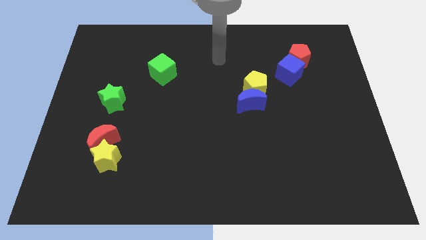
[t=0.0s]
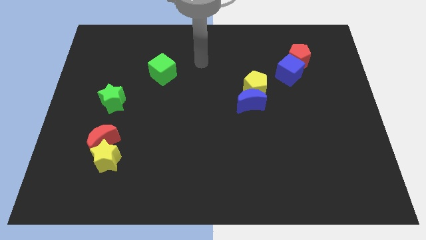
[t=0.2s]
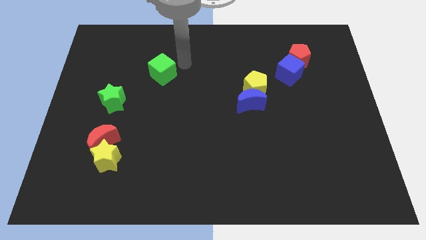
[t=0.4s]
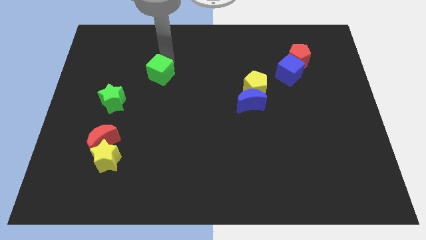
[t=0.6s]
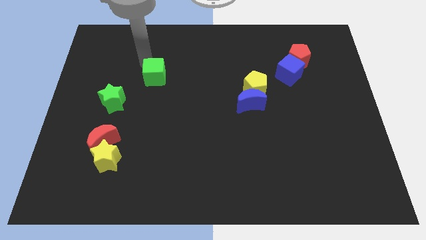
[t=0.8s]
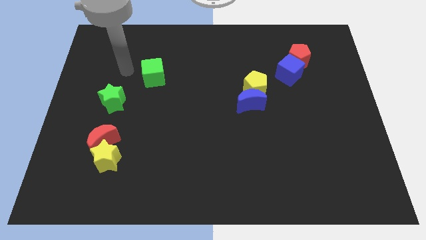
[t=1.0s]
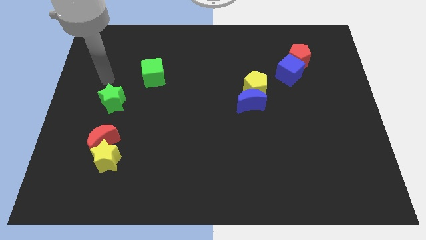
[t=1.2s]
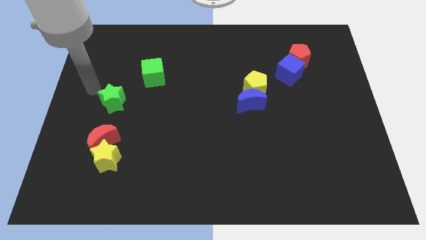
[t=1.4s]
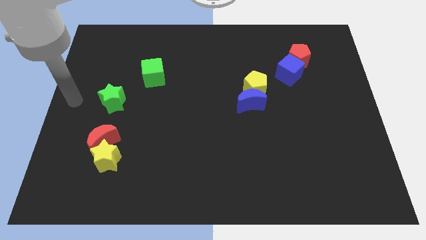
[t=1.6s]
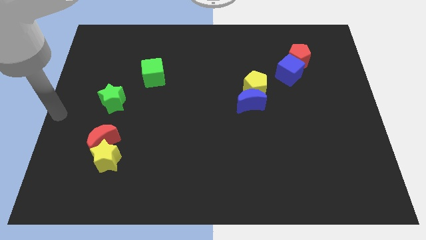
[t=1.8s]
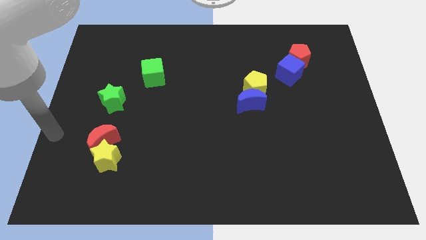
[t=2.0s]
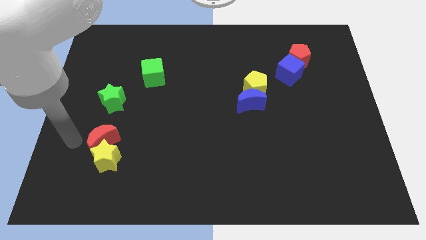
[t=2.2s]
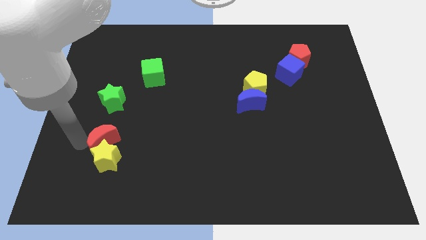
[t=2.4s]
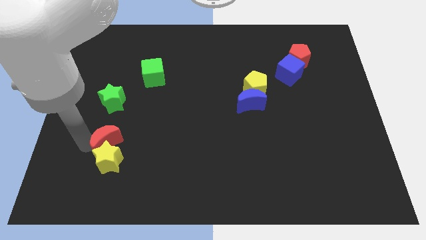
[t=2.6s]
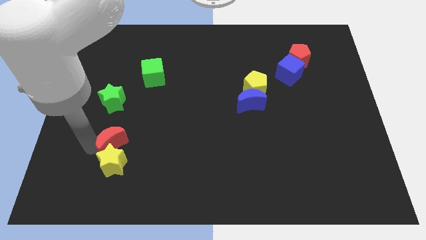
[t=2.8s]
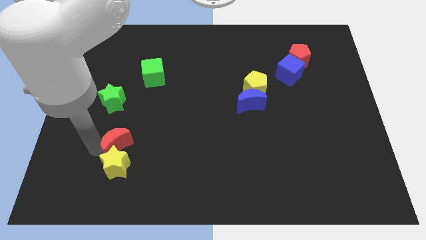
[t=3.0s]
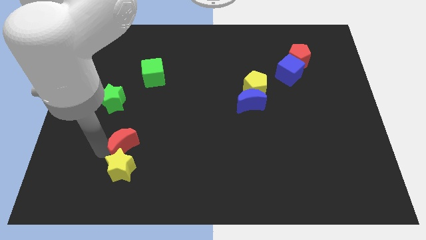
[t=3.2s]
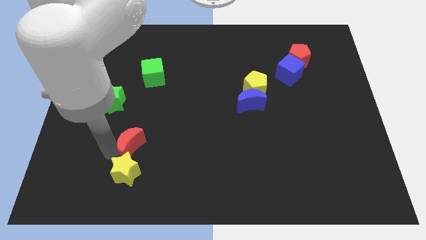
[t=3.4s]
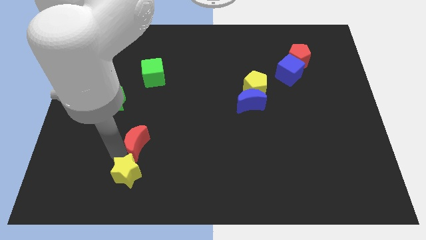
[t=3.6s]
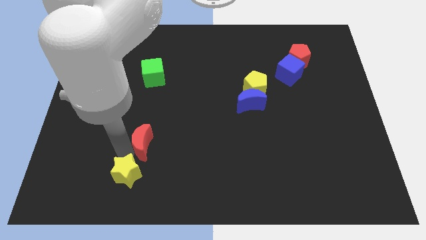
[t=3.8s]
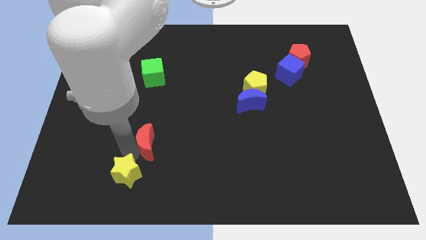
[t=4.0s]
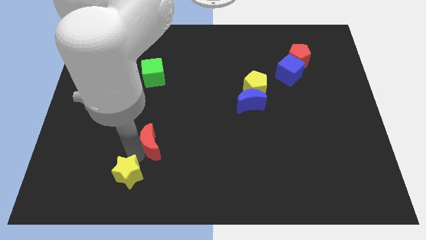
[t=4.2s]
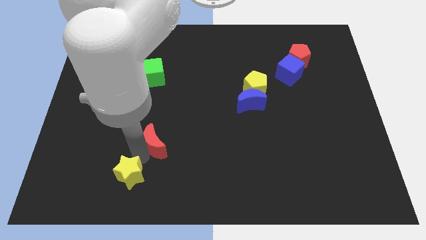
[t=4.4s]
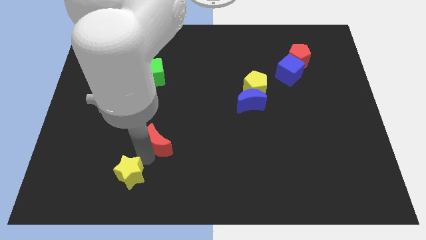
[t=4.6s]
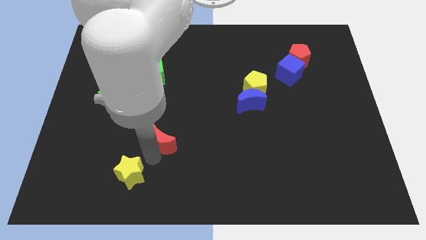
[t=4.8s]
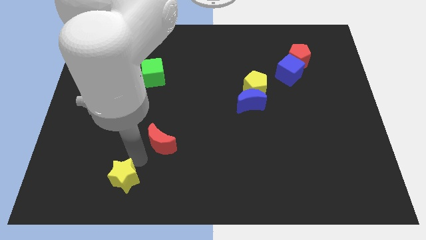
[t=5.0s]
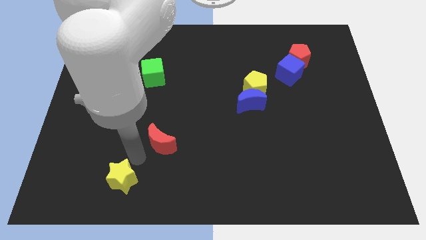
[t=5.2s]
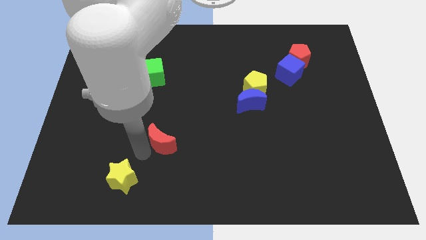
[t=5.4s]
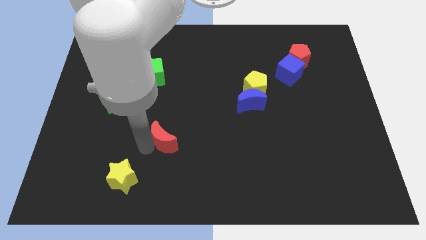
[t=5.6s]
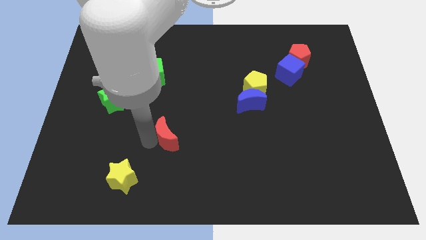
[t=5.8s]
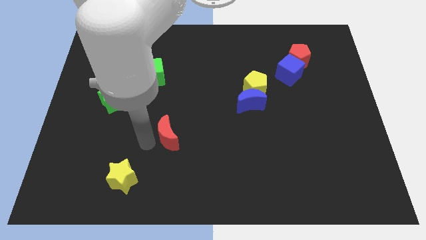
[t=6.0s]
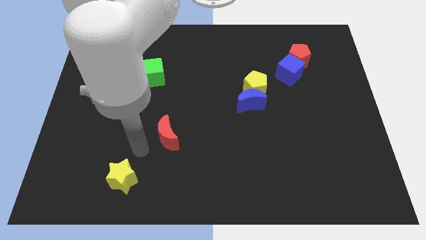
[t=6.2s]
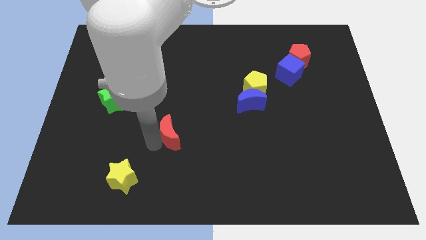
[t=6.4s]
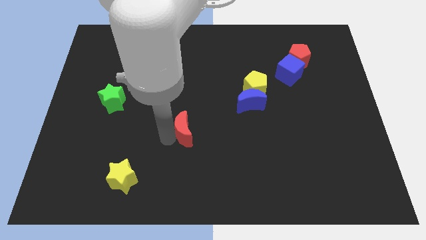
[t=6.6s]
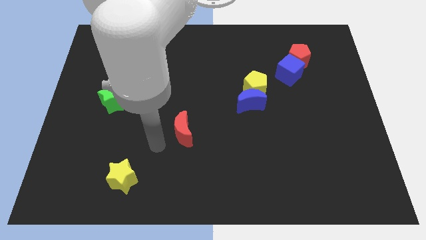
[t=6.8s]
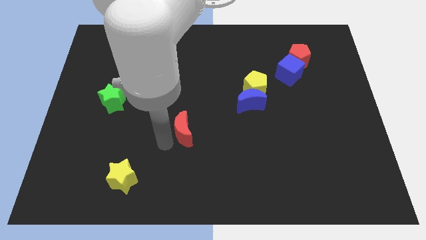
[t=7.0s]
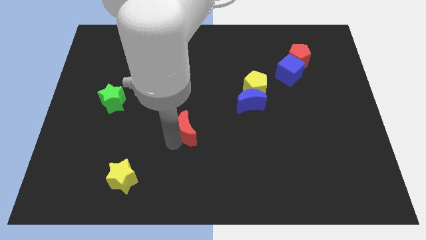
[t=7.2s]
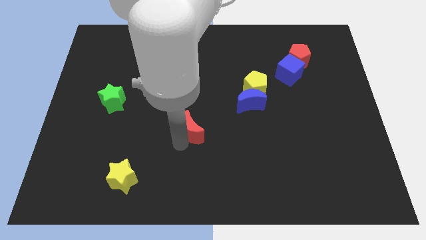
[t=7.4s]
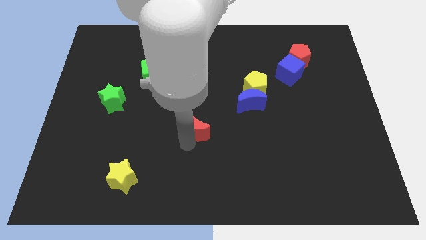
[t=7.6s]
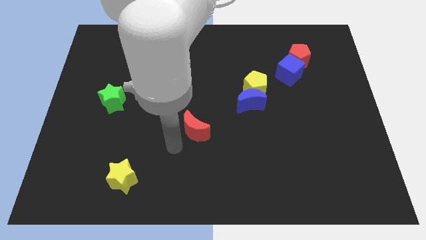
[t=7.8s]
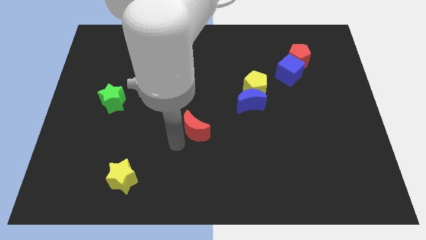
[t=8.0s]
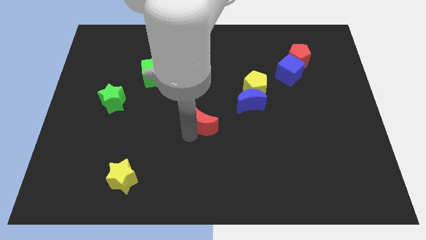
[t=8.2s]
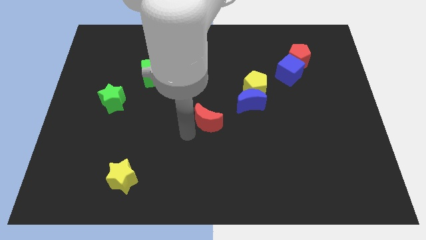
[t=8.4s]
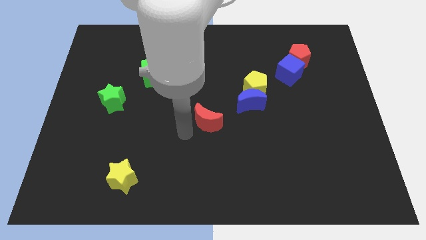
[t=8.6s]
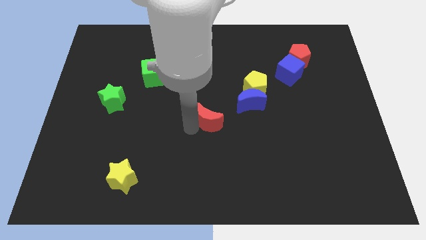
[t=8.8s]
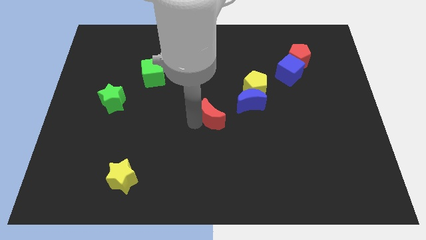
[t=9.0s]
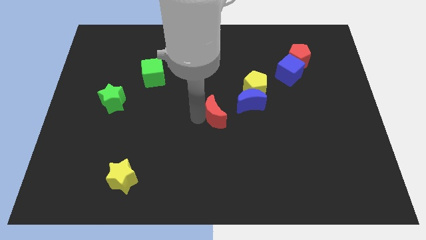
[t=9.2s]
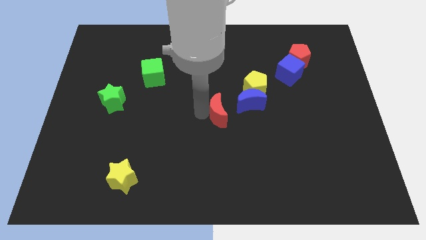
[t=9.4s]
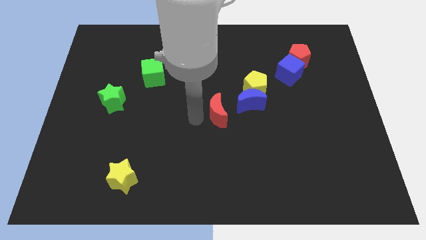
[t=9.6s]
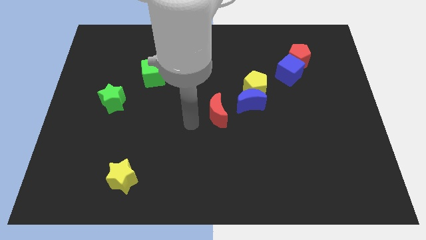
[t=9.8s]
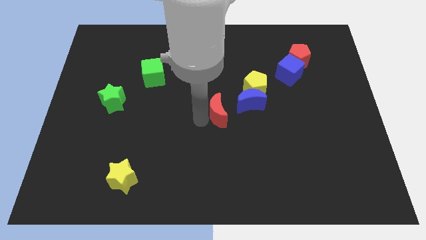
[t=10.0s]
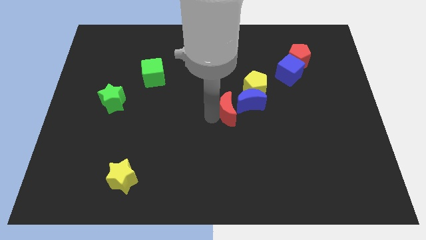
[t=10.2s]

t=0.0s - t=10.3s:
move the red moon close to the blue moon

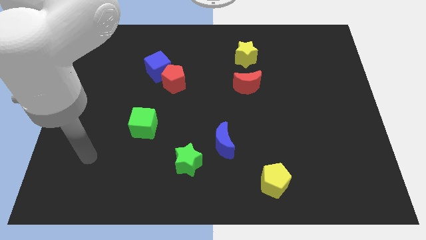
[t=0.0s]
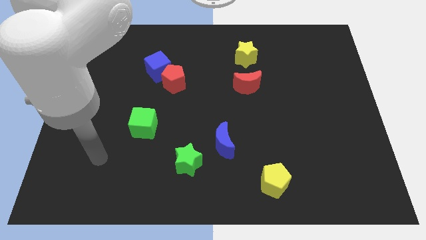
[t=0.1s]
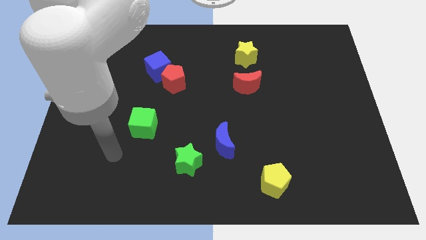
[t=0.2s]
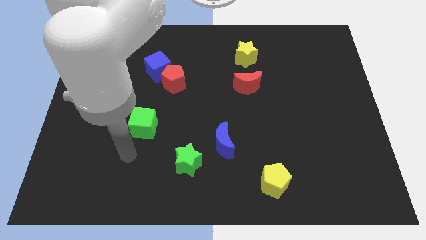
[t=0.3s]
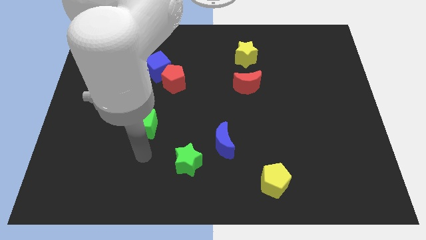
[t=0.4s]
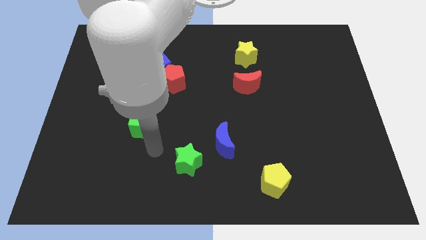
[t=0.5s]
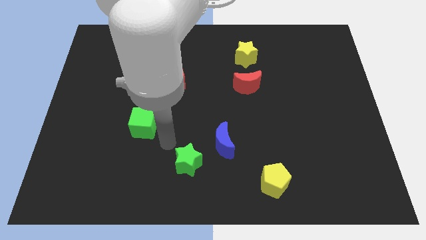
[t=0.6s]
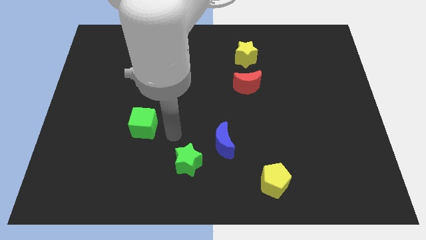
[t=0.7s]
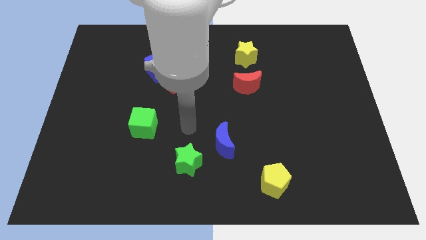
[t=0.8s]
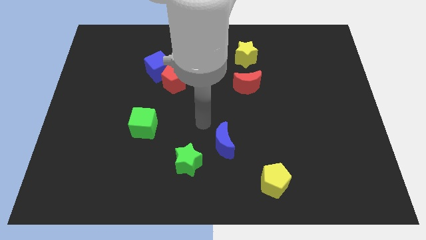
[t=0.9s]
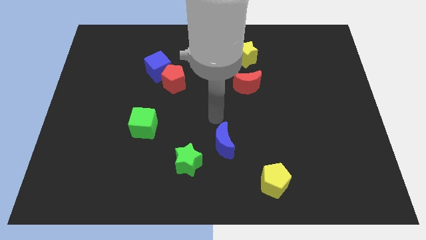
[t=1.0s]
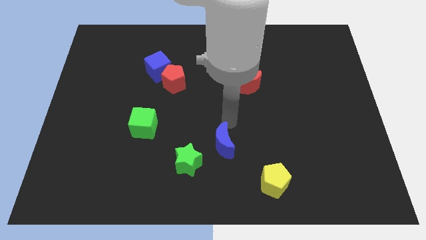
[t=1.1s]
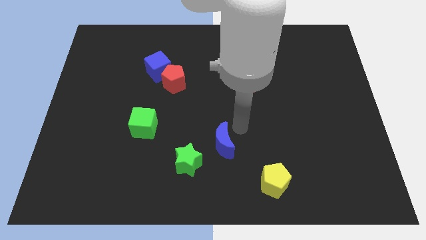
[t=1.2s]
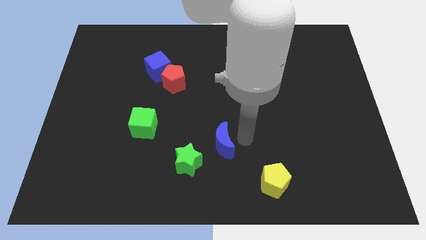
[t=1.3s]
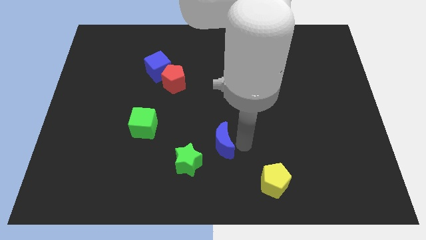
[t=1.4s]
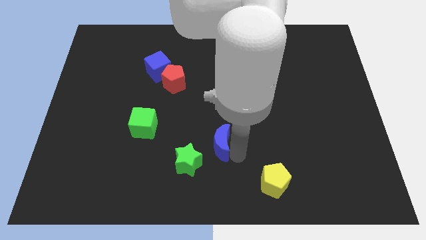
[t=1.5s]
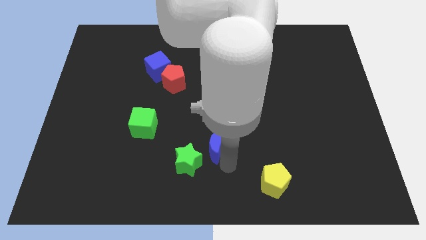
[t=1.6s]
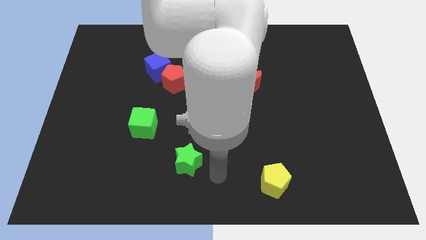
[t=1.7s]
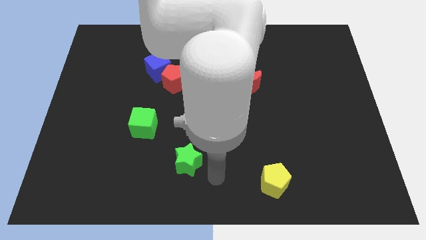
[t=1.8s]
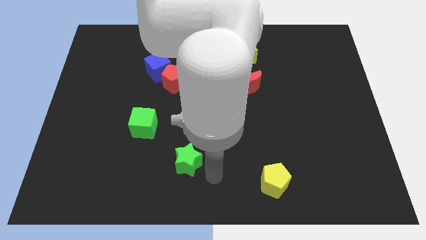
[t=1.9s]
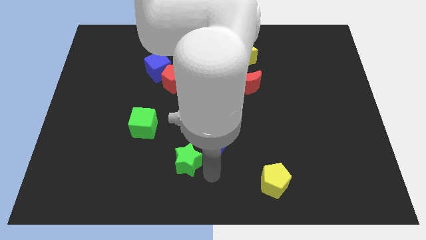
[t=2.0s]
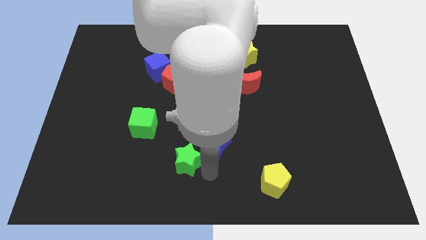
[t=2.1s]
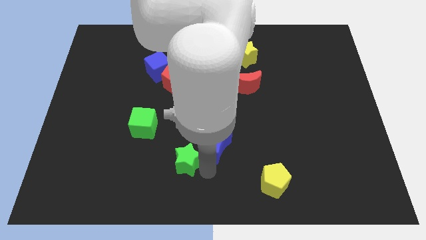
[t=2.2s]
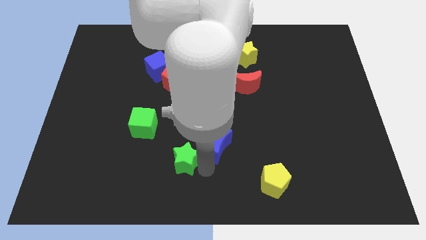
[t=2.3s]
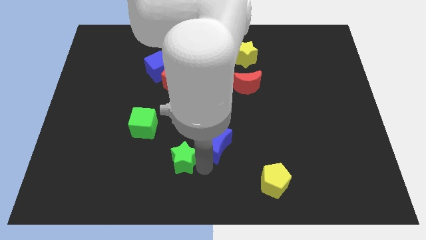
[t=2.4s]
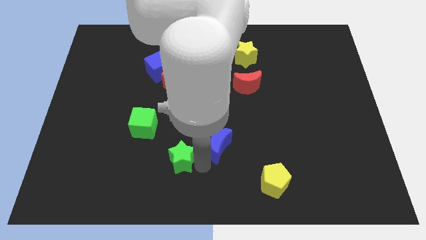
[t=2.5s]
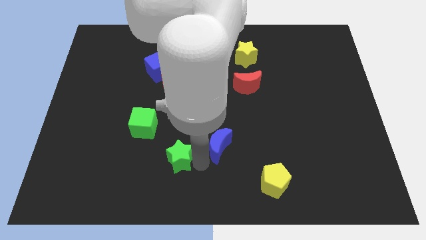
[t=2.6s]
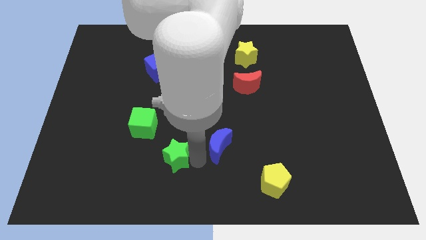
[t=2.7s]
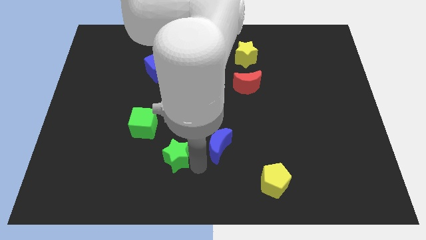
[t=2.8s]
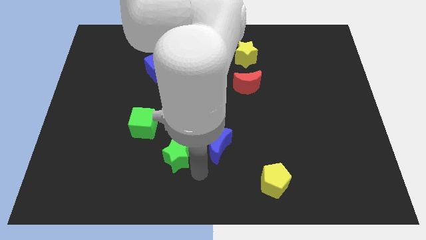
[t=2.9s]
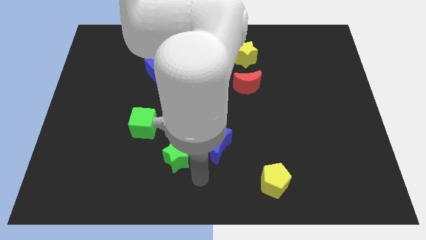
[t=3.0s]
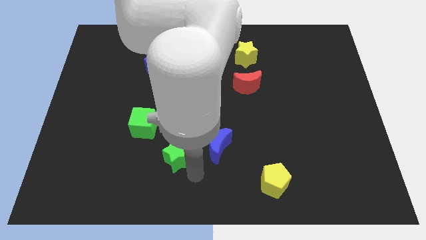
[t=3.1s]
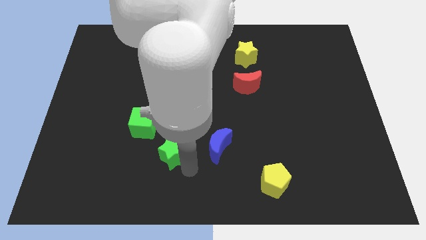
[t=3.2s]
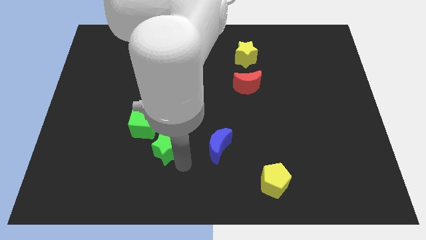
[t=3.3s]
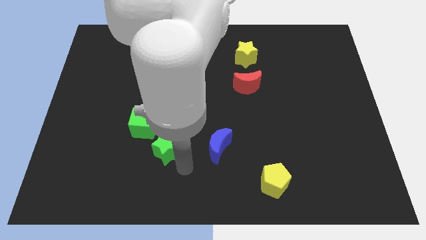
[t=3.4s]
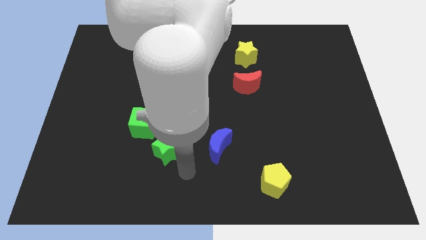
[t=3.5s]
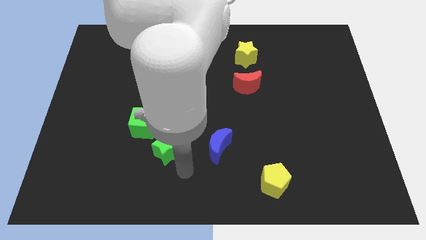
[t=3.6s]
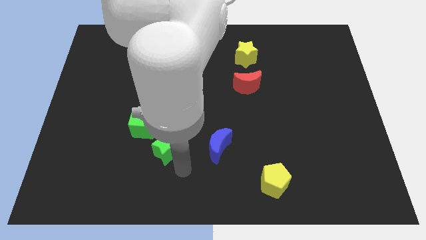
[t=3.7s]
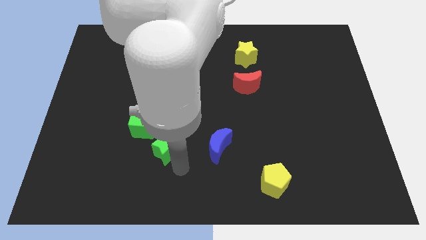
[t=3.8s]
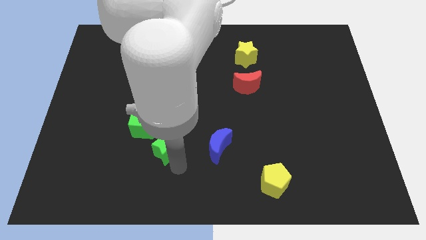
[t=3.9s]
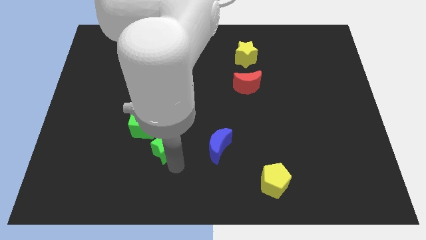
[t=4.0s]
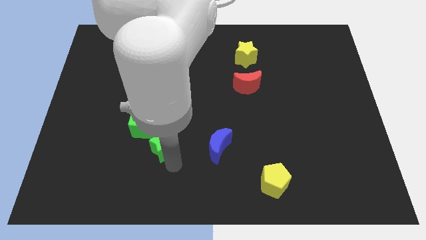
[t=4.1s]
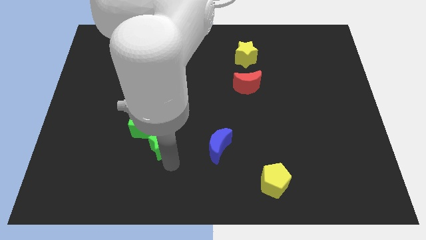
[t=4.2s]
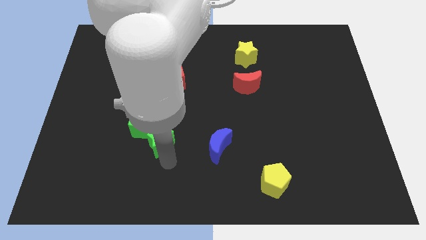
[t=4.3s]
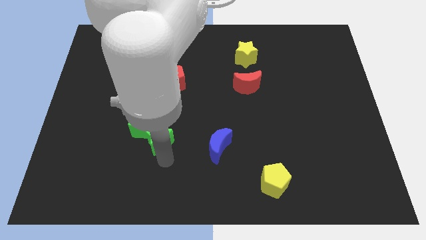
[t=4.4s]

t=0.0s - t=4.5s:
push the green star close to the green cube
